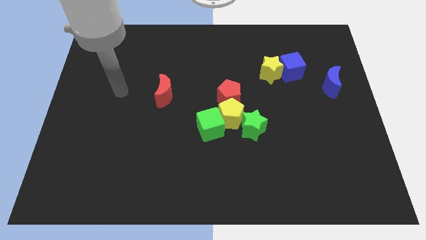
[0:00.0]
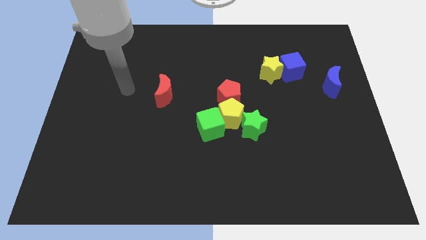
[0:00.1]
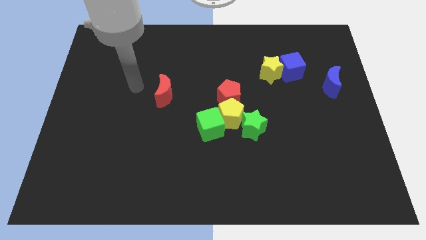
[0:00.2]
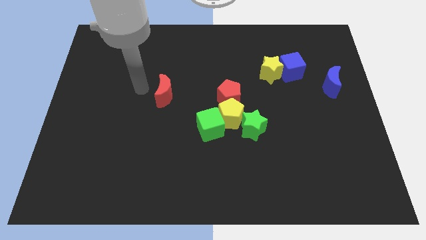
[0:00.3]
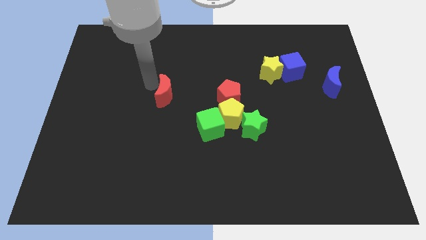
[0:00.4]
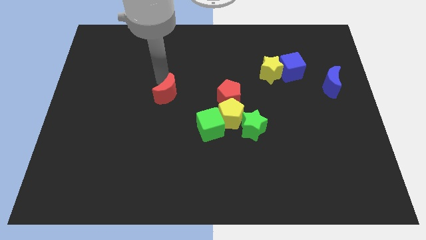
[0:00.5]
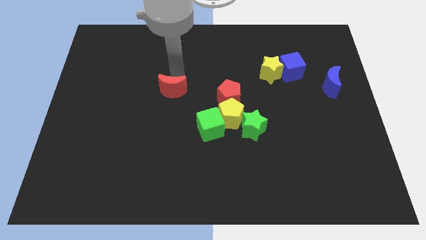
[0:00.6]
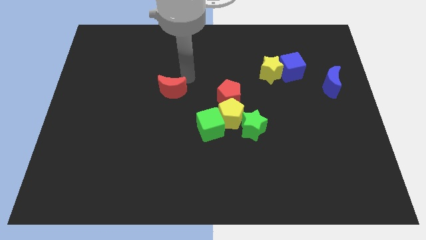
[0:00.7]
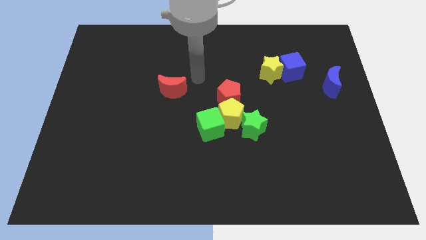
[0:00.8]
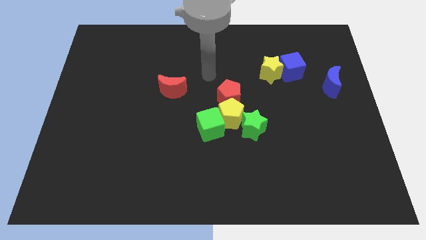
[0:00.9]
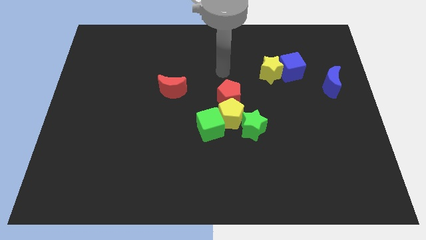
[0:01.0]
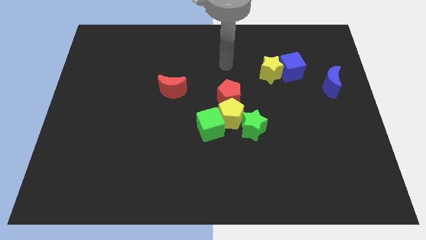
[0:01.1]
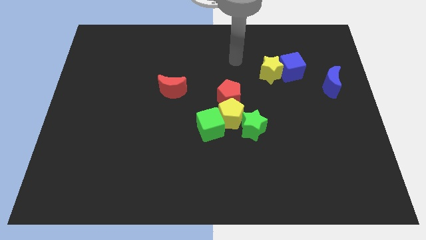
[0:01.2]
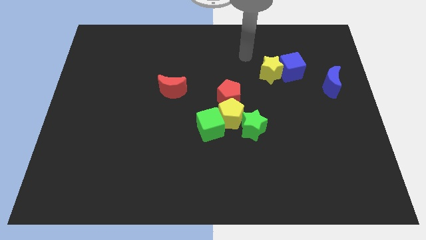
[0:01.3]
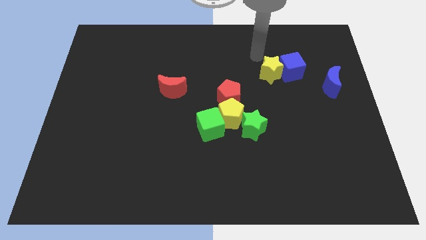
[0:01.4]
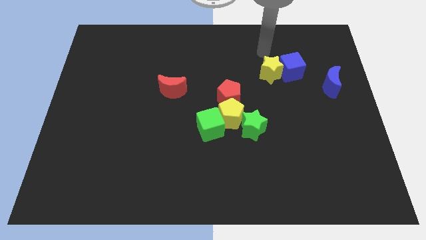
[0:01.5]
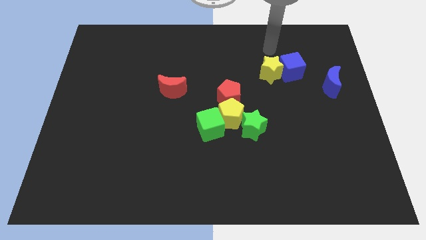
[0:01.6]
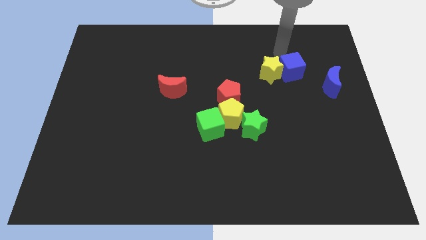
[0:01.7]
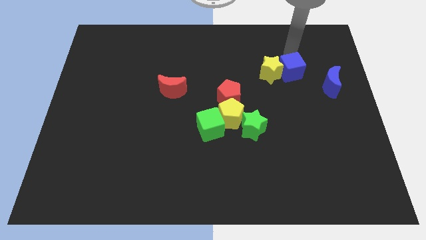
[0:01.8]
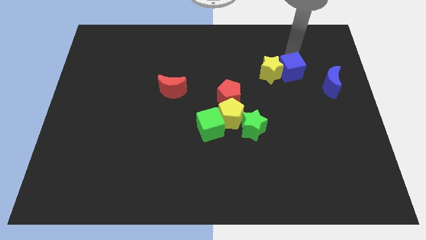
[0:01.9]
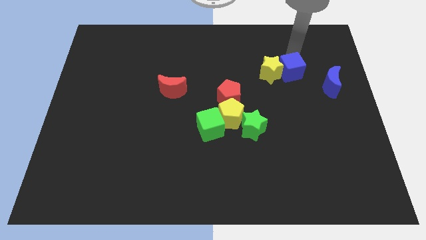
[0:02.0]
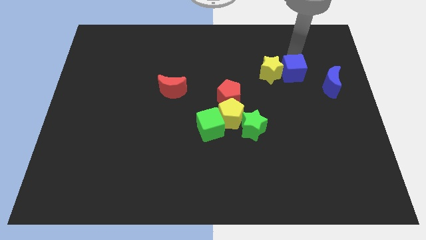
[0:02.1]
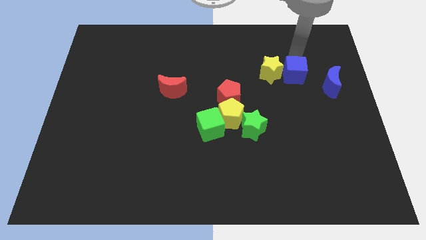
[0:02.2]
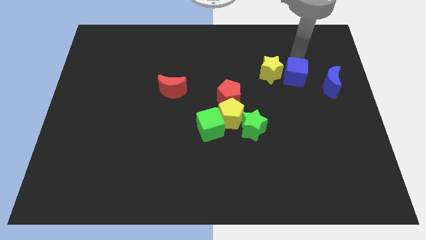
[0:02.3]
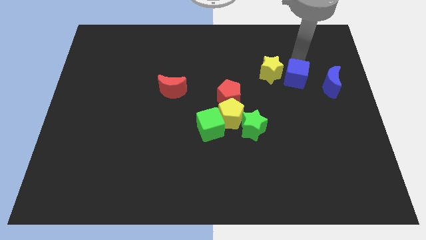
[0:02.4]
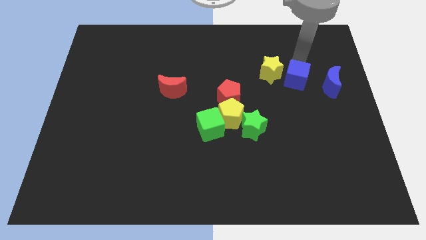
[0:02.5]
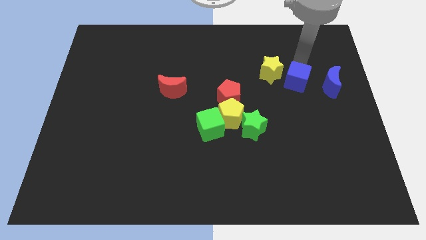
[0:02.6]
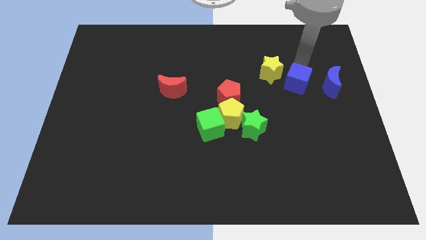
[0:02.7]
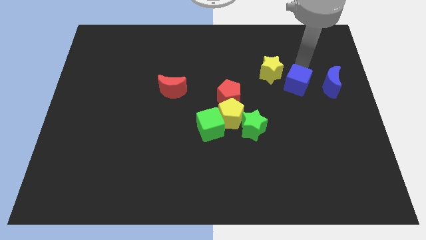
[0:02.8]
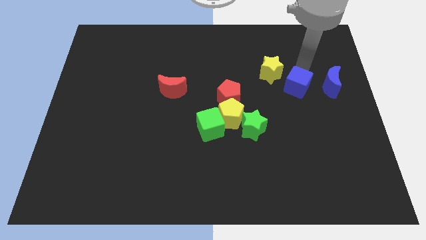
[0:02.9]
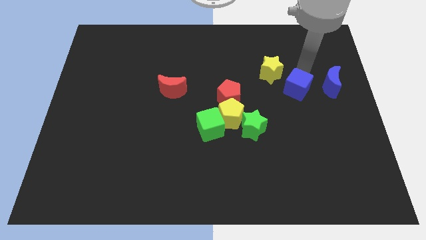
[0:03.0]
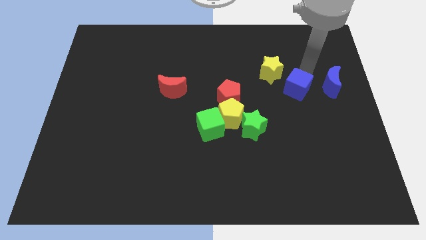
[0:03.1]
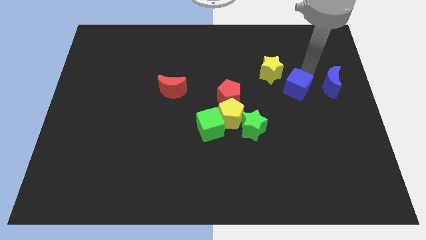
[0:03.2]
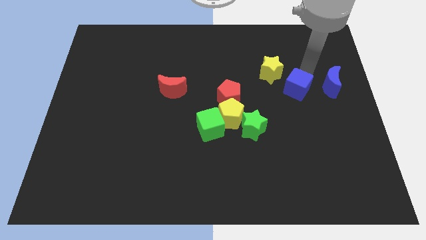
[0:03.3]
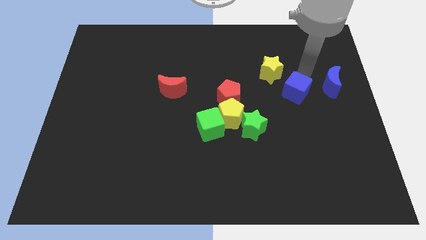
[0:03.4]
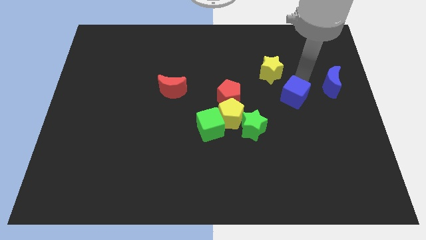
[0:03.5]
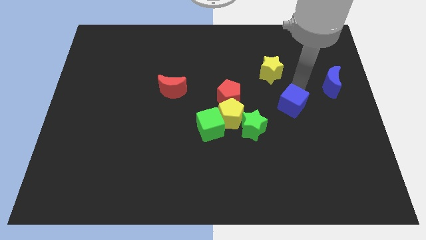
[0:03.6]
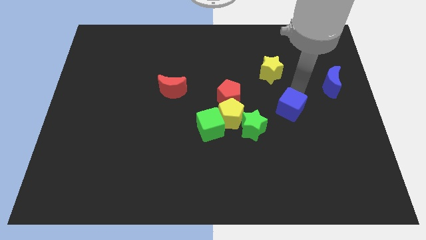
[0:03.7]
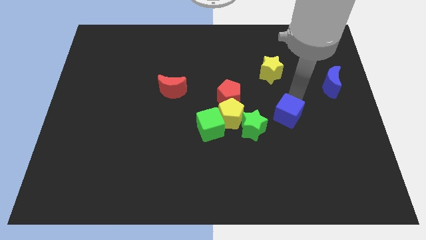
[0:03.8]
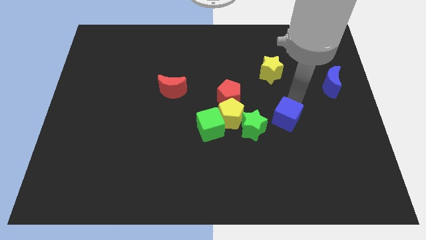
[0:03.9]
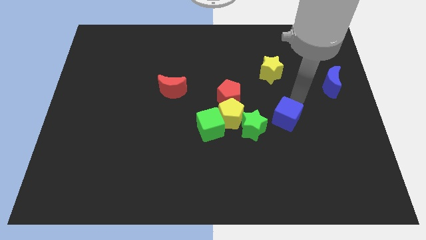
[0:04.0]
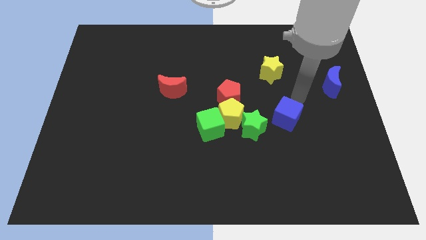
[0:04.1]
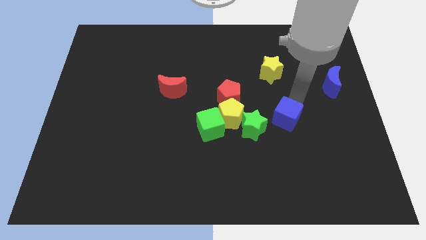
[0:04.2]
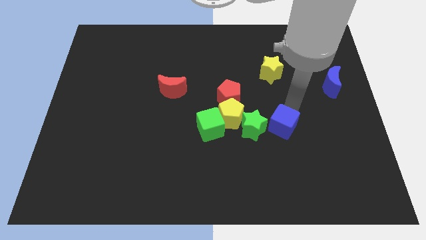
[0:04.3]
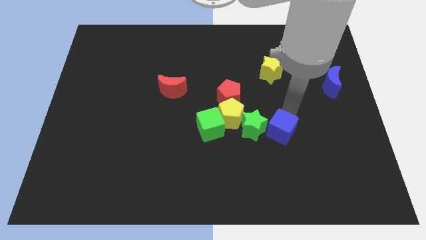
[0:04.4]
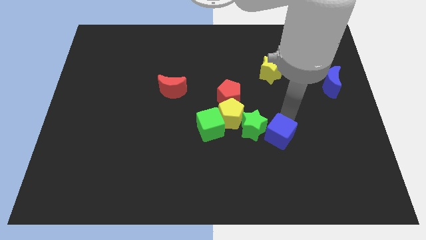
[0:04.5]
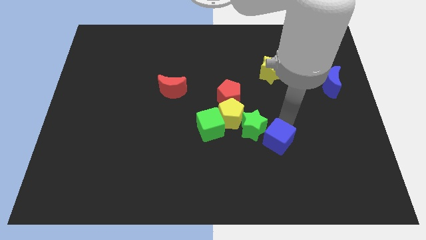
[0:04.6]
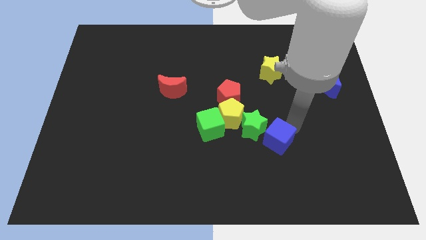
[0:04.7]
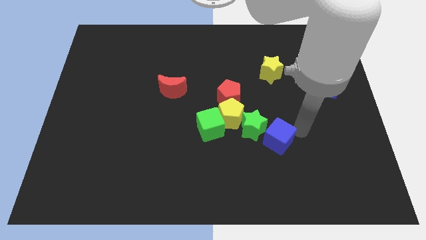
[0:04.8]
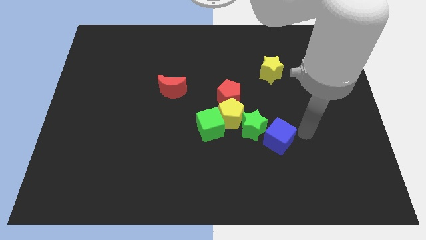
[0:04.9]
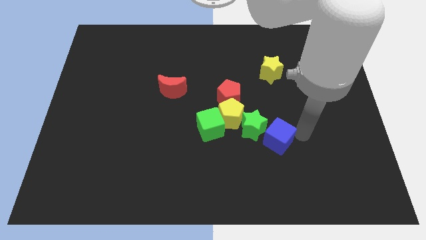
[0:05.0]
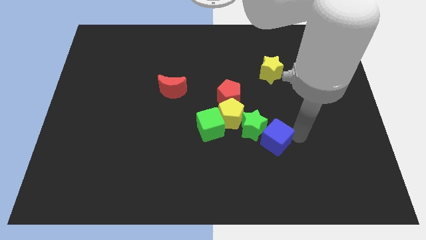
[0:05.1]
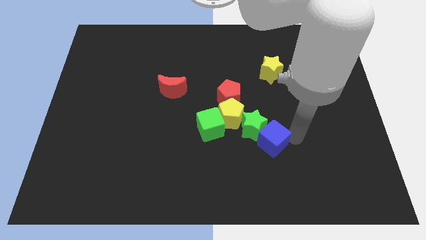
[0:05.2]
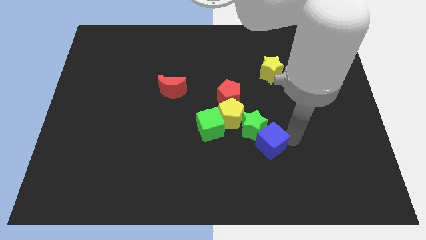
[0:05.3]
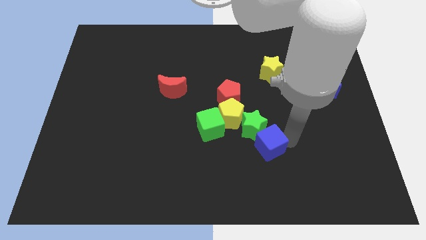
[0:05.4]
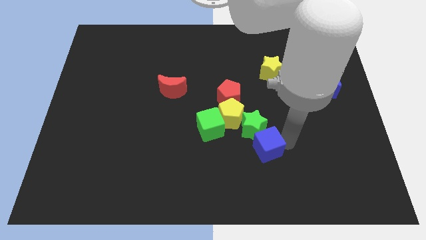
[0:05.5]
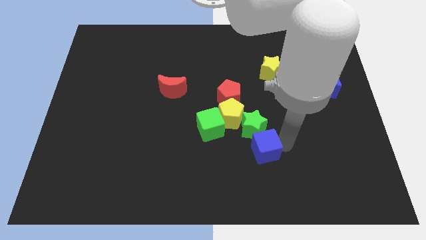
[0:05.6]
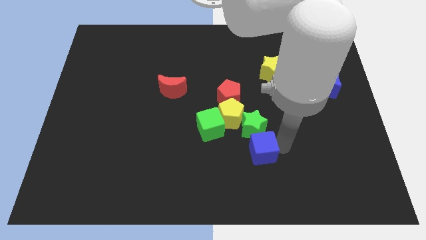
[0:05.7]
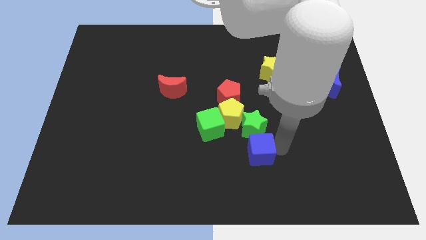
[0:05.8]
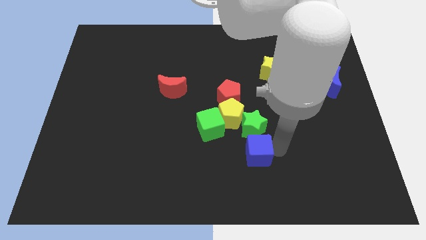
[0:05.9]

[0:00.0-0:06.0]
move the blue cube downwards and left

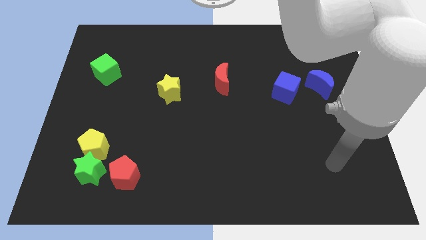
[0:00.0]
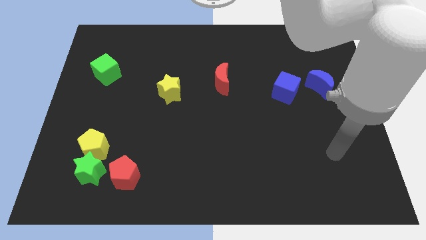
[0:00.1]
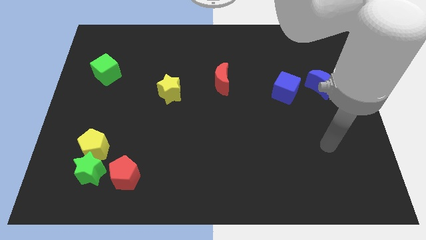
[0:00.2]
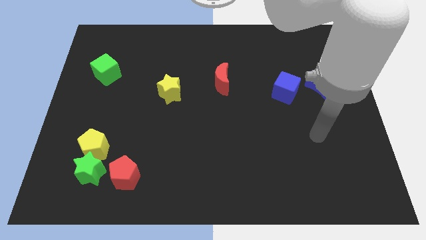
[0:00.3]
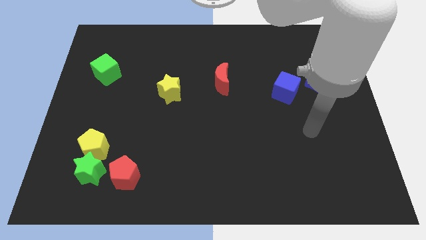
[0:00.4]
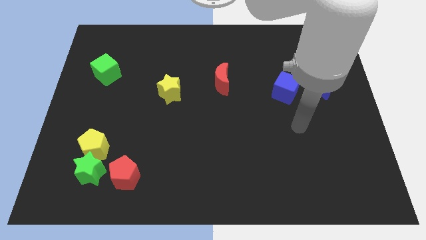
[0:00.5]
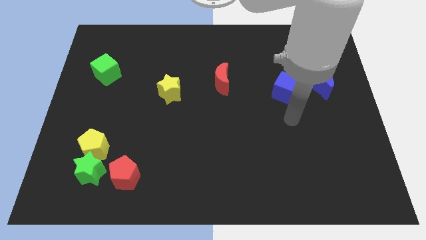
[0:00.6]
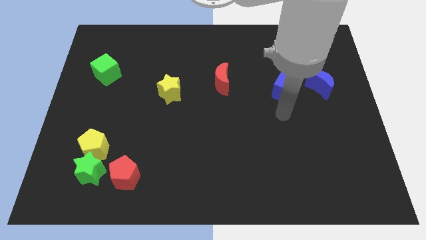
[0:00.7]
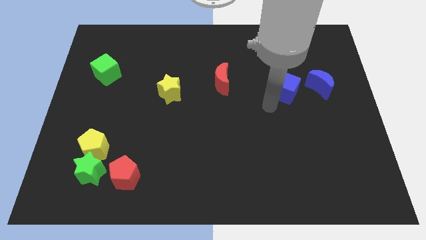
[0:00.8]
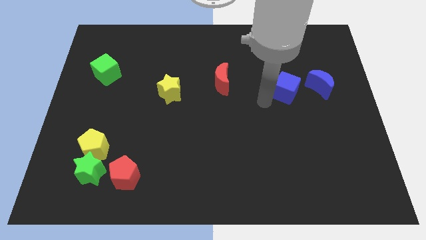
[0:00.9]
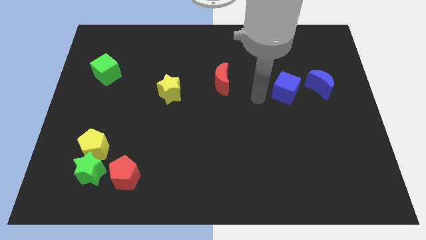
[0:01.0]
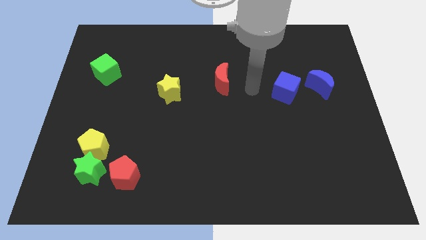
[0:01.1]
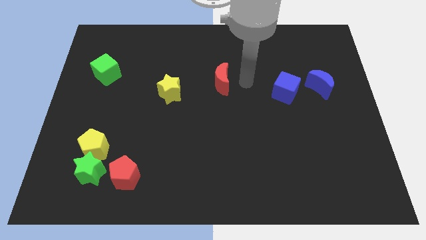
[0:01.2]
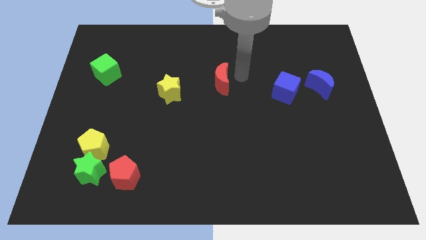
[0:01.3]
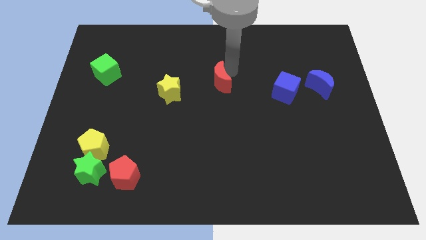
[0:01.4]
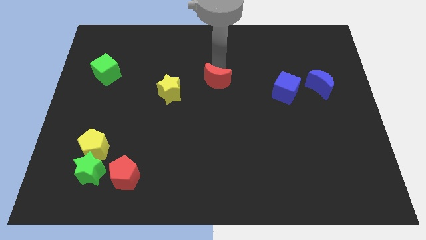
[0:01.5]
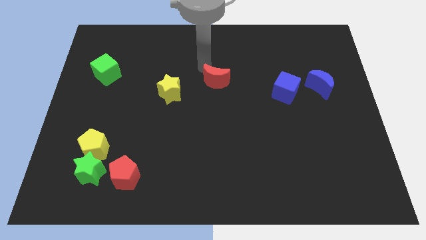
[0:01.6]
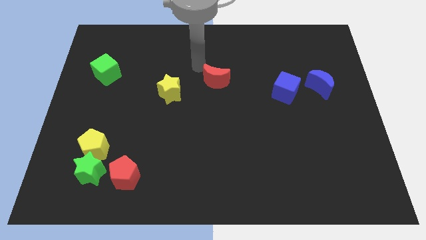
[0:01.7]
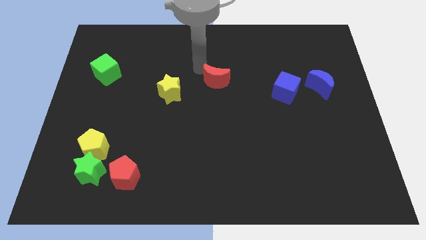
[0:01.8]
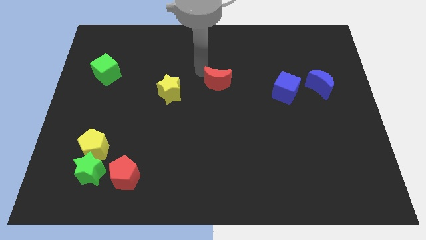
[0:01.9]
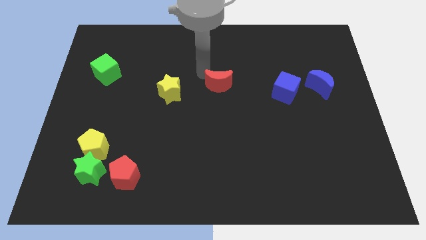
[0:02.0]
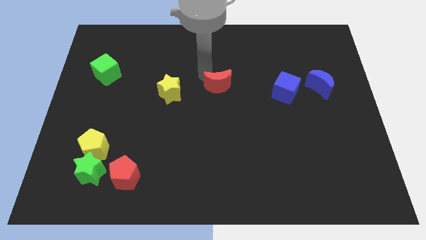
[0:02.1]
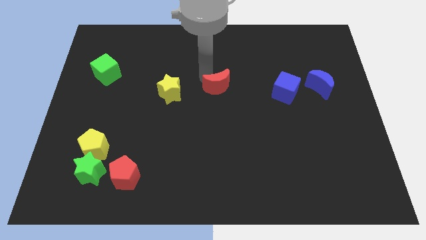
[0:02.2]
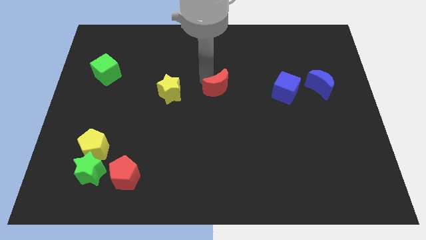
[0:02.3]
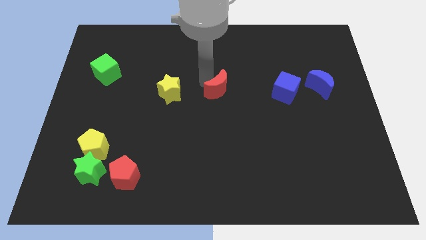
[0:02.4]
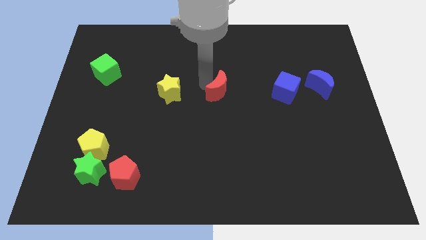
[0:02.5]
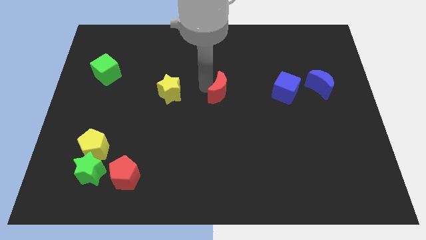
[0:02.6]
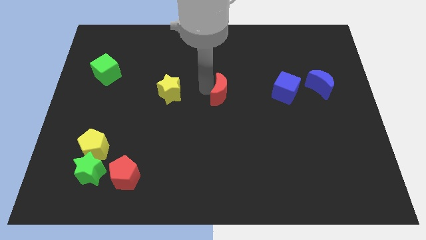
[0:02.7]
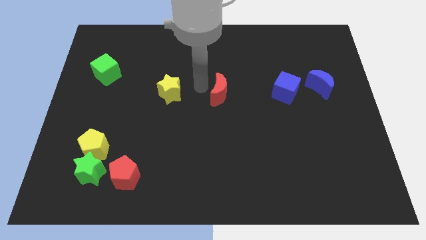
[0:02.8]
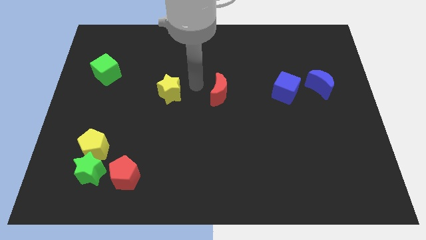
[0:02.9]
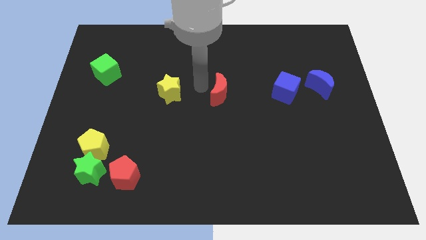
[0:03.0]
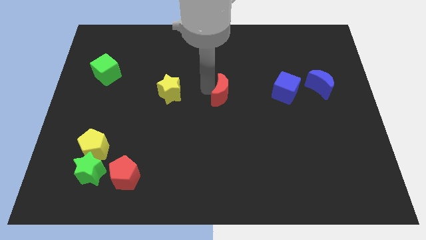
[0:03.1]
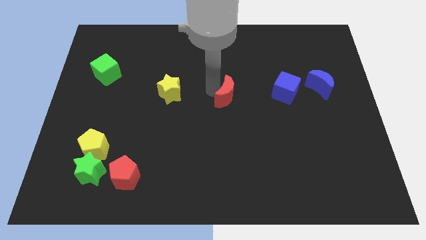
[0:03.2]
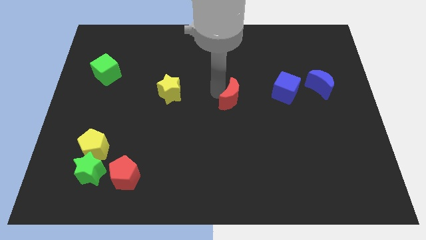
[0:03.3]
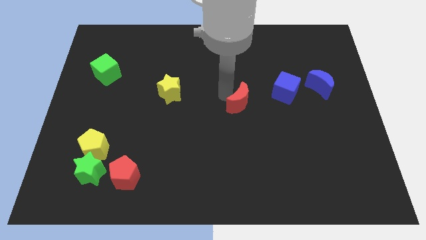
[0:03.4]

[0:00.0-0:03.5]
push the red moon a little downwards and right diagonally
